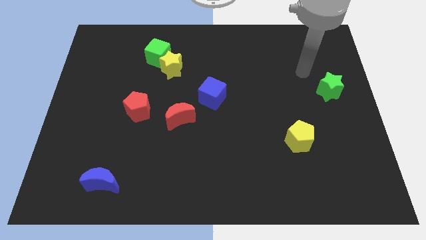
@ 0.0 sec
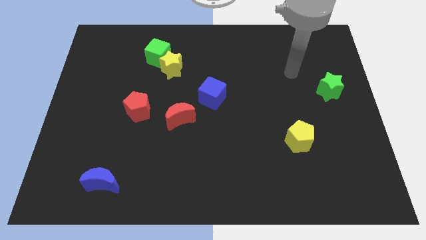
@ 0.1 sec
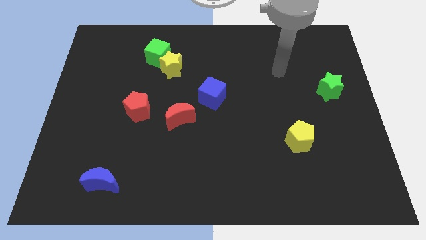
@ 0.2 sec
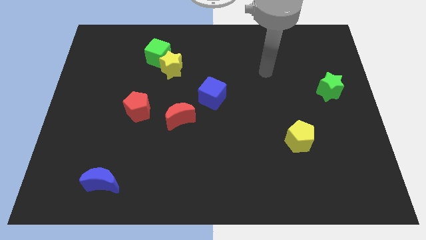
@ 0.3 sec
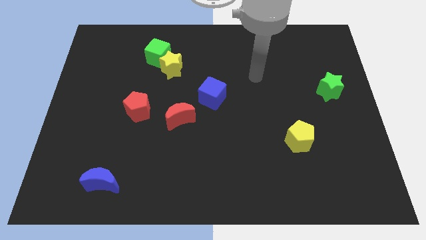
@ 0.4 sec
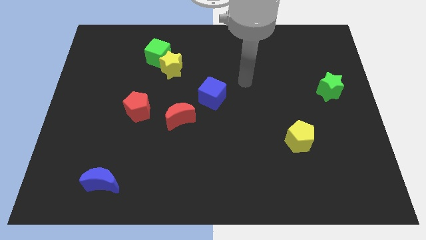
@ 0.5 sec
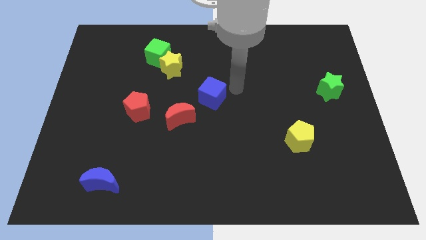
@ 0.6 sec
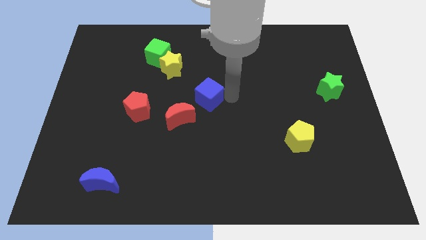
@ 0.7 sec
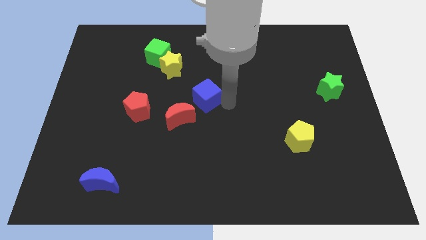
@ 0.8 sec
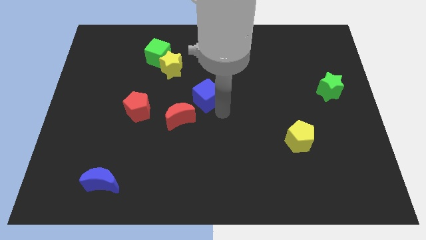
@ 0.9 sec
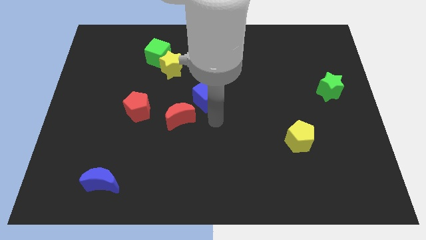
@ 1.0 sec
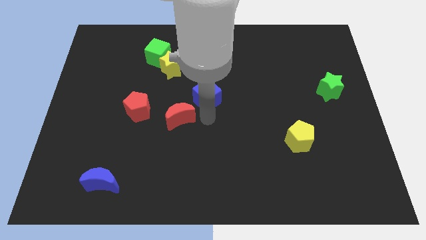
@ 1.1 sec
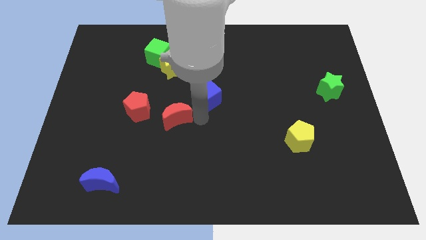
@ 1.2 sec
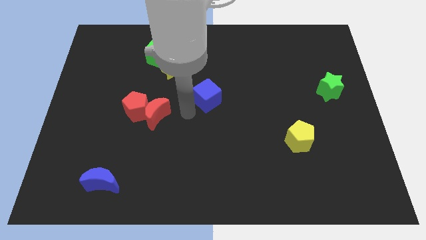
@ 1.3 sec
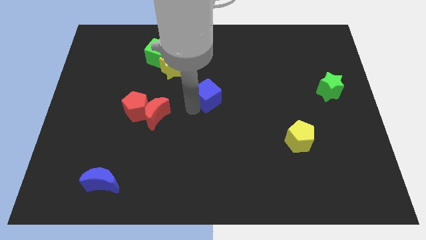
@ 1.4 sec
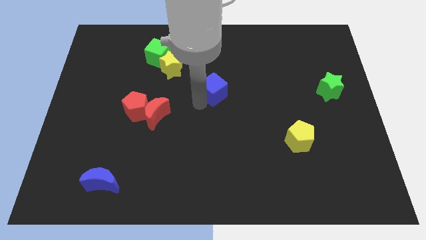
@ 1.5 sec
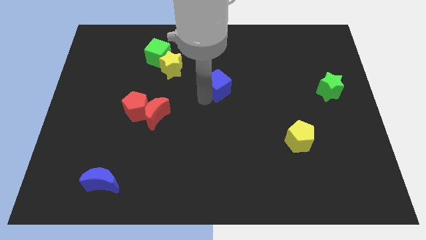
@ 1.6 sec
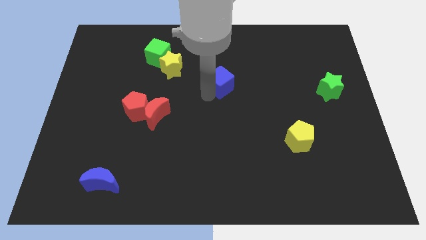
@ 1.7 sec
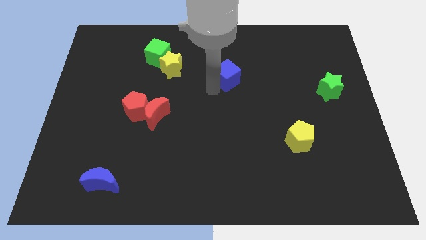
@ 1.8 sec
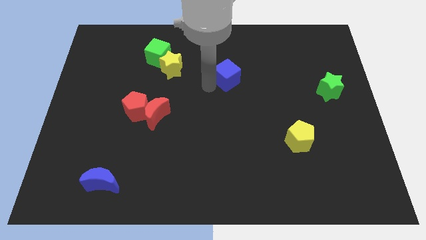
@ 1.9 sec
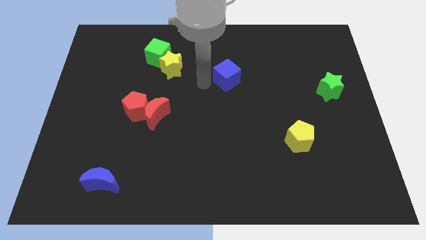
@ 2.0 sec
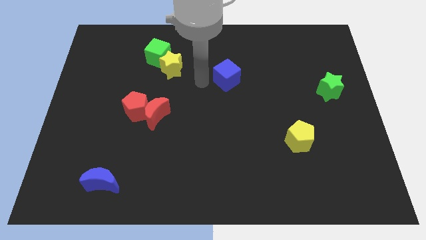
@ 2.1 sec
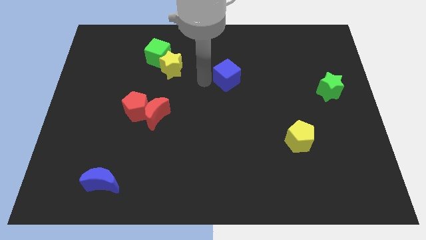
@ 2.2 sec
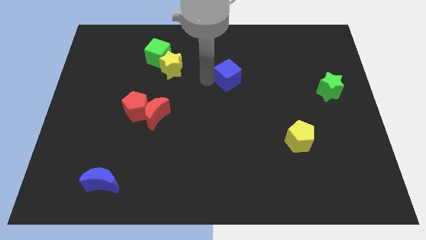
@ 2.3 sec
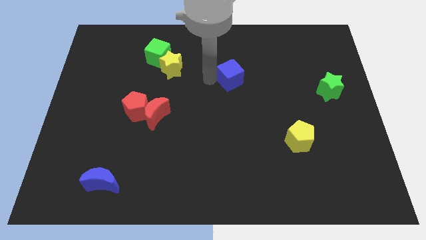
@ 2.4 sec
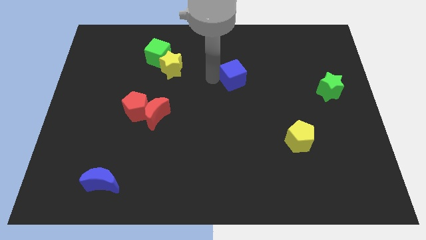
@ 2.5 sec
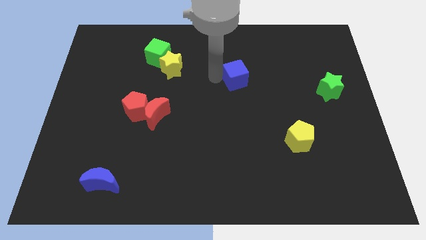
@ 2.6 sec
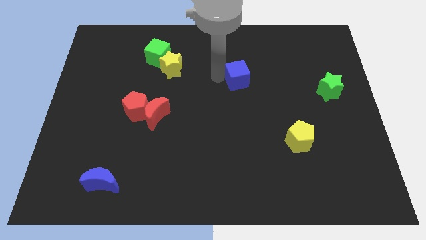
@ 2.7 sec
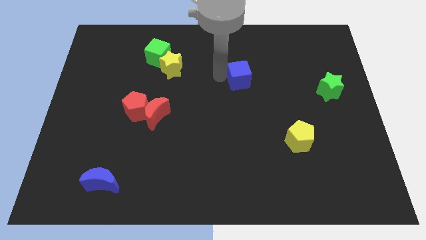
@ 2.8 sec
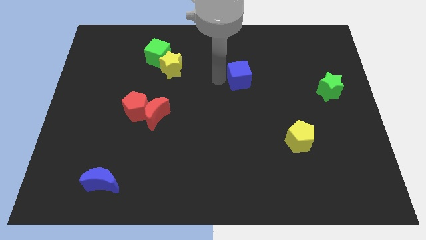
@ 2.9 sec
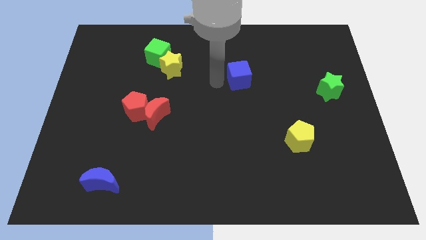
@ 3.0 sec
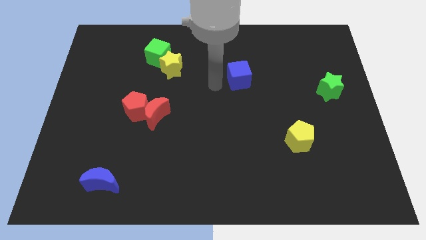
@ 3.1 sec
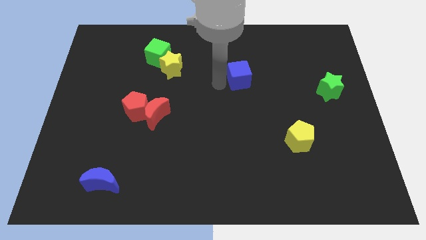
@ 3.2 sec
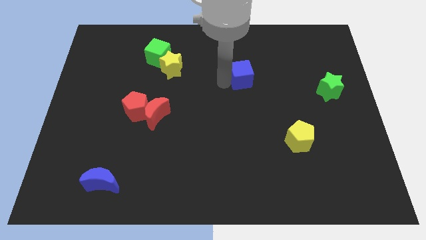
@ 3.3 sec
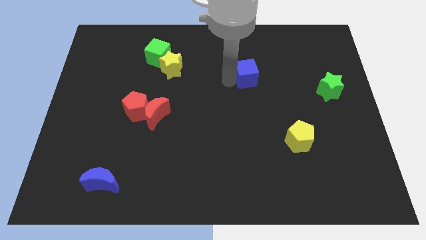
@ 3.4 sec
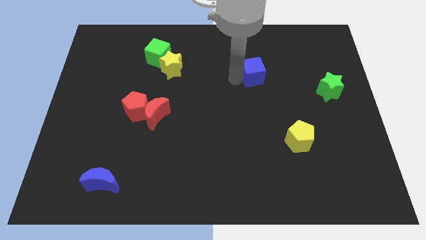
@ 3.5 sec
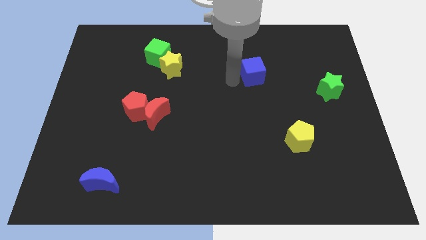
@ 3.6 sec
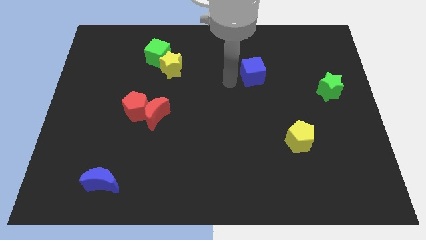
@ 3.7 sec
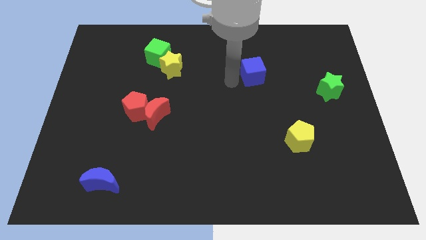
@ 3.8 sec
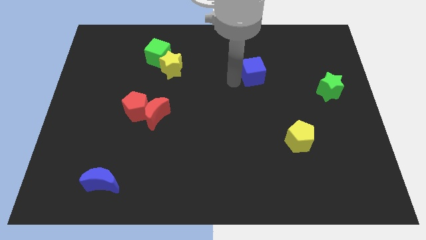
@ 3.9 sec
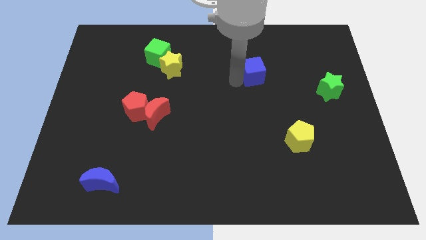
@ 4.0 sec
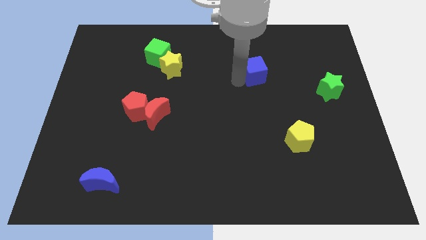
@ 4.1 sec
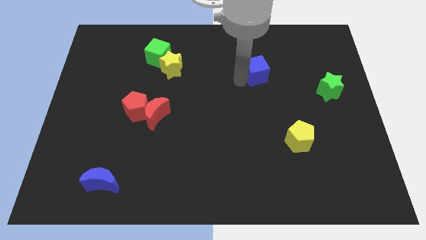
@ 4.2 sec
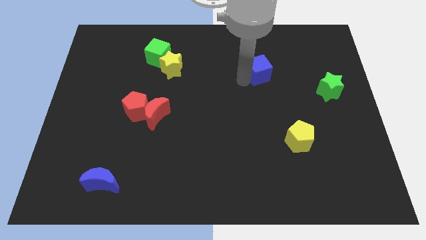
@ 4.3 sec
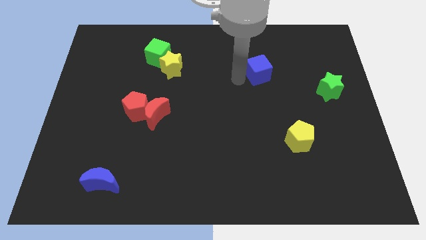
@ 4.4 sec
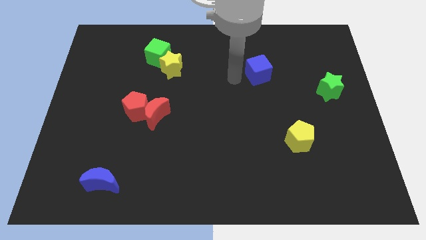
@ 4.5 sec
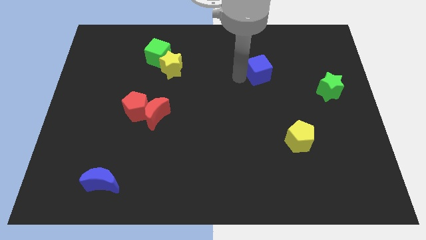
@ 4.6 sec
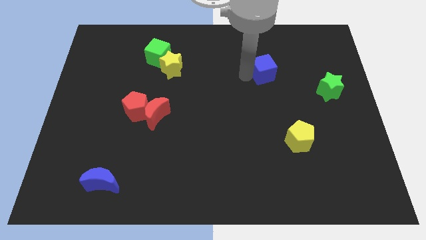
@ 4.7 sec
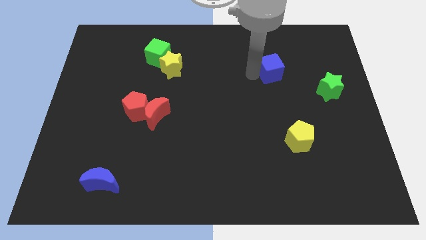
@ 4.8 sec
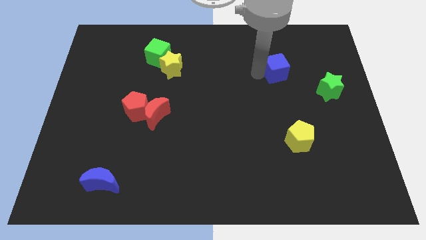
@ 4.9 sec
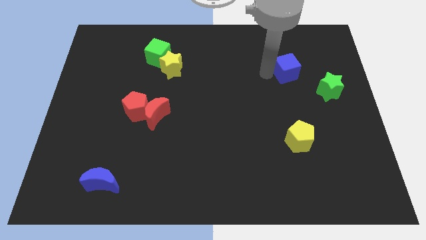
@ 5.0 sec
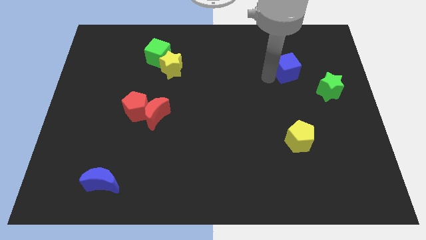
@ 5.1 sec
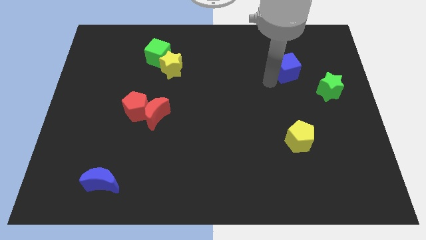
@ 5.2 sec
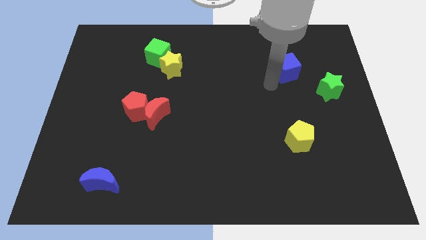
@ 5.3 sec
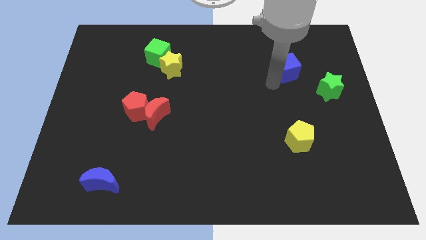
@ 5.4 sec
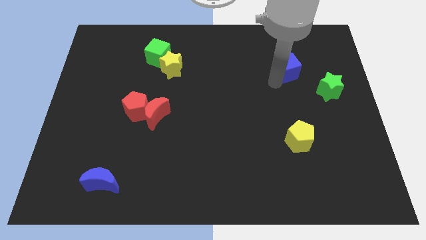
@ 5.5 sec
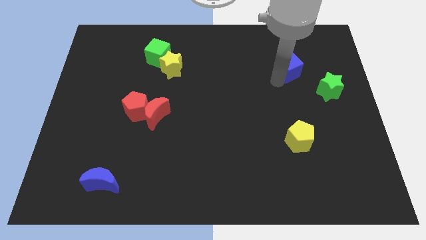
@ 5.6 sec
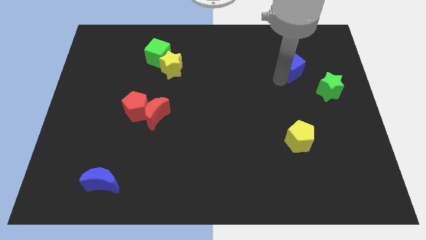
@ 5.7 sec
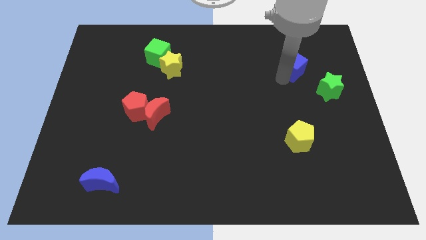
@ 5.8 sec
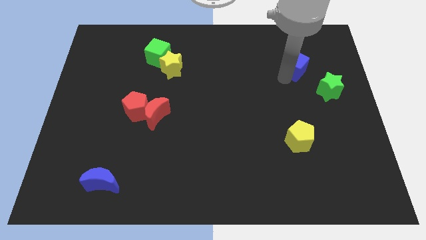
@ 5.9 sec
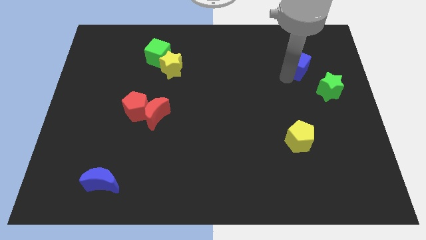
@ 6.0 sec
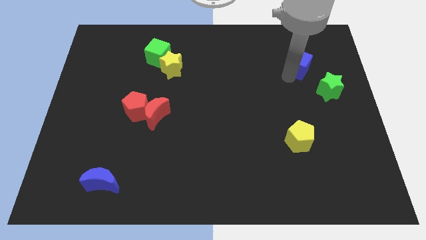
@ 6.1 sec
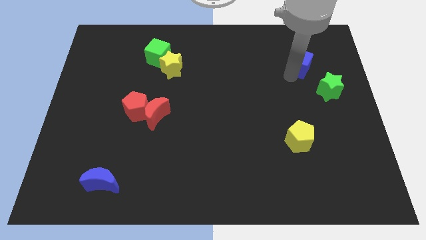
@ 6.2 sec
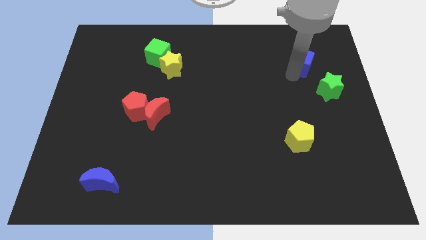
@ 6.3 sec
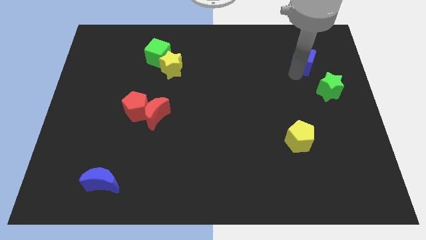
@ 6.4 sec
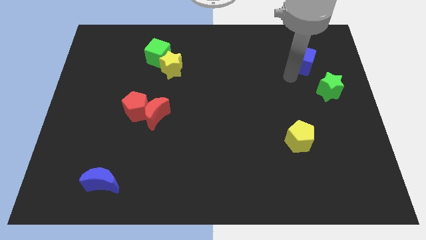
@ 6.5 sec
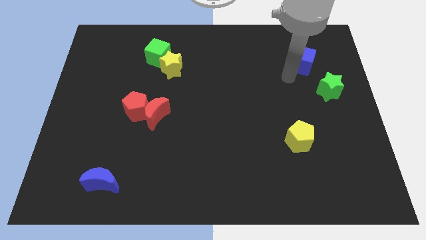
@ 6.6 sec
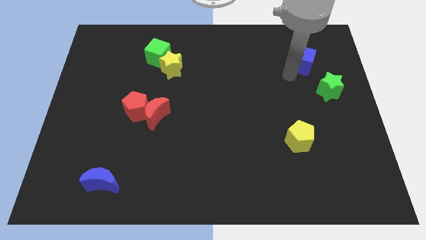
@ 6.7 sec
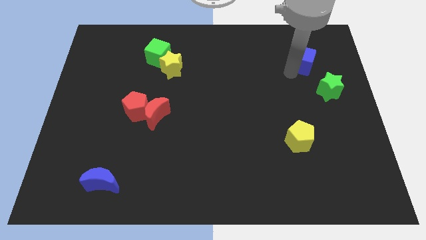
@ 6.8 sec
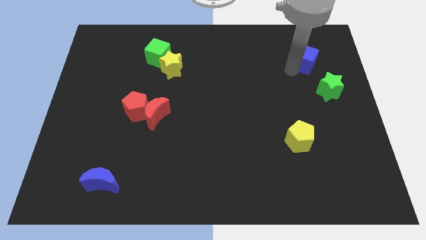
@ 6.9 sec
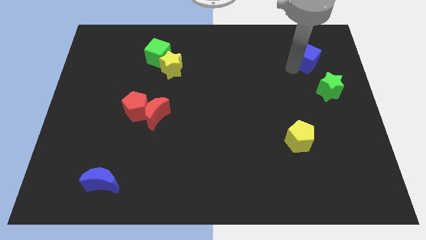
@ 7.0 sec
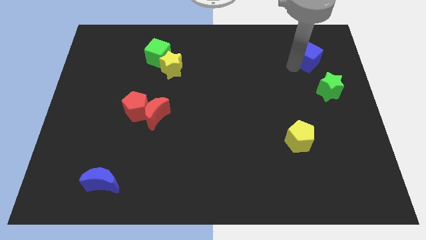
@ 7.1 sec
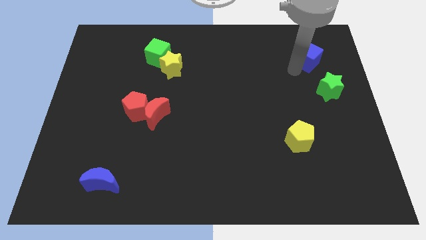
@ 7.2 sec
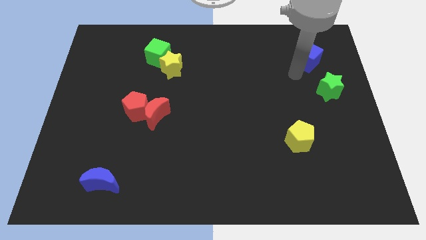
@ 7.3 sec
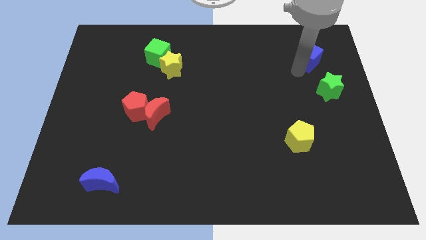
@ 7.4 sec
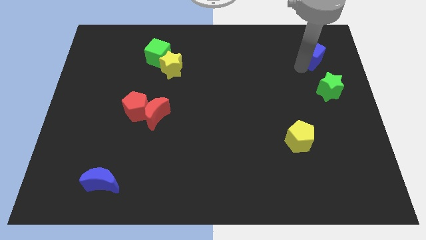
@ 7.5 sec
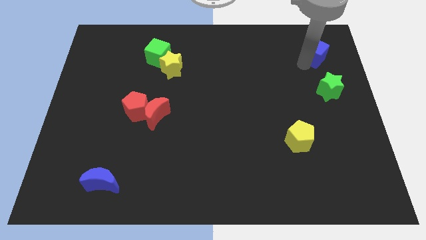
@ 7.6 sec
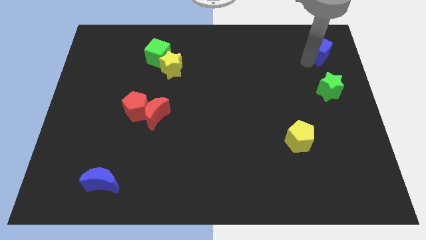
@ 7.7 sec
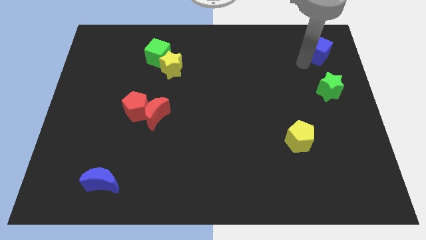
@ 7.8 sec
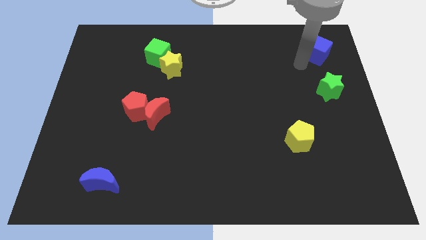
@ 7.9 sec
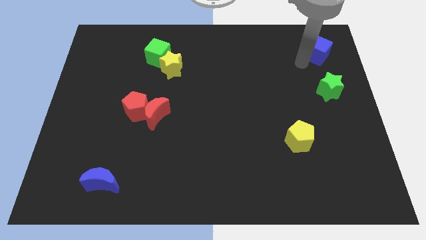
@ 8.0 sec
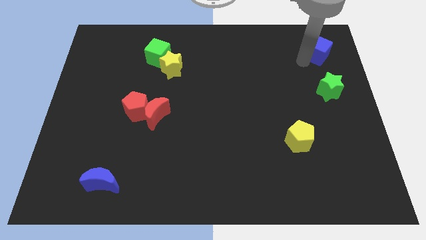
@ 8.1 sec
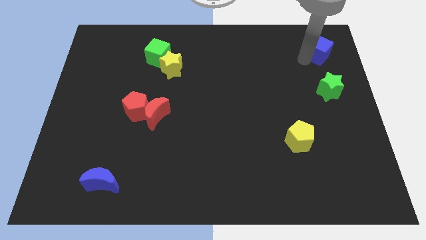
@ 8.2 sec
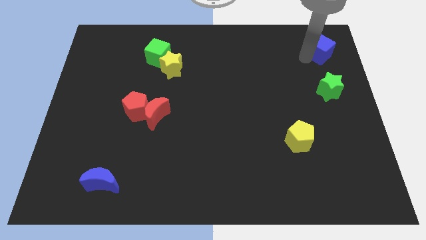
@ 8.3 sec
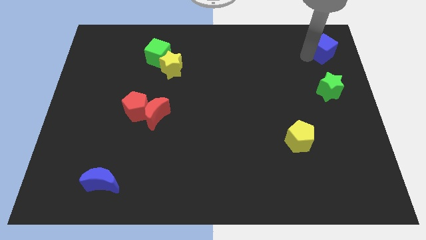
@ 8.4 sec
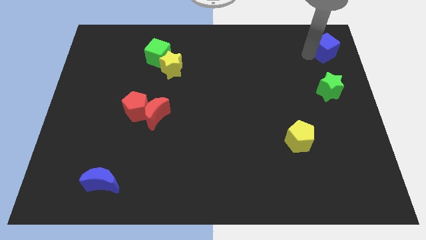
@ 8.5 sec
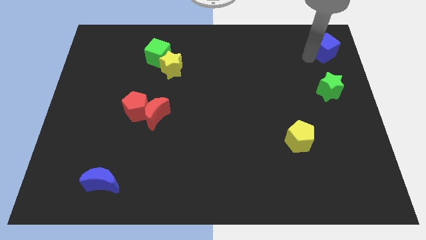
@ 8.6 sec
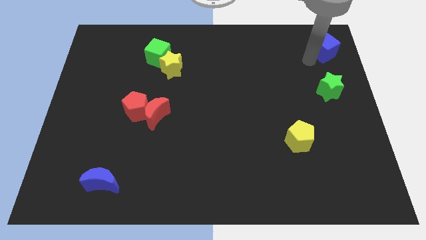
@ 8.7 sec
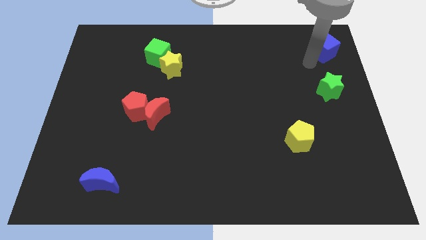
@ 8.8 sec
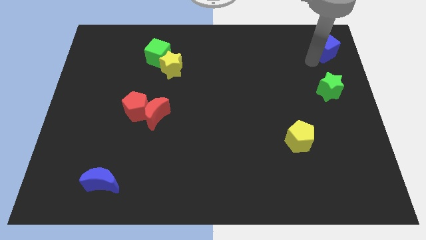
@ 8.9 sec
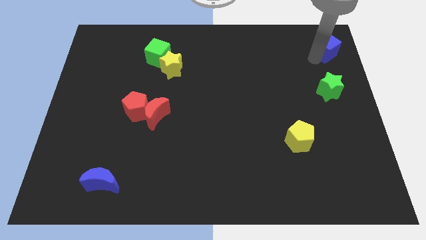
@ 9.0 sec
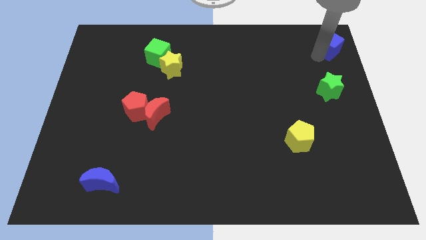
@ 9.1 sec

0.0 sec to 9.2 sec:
slide the blue cube to the upper right corner
